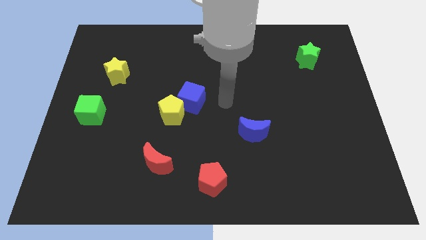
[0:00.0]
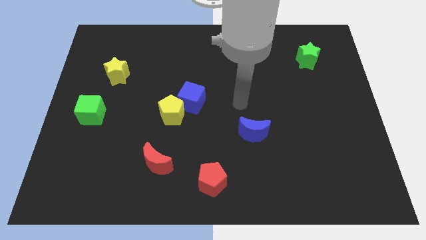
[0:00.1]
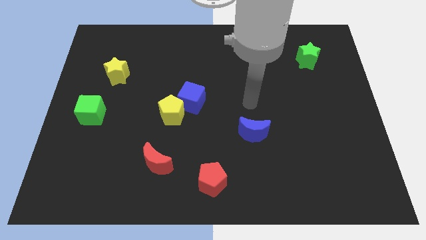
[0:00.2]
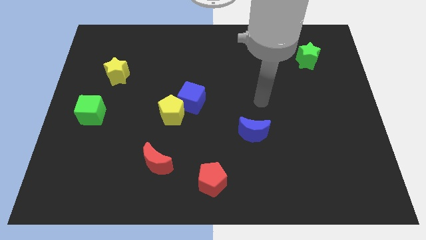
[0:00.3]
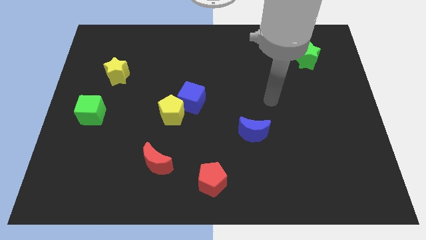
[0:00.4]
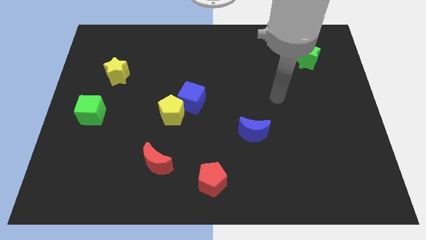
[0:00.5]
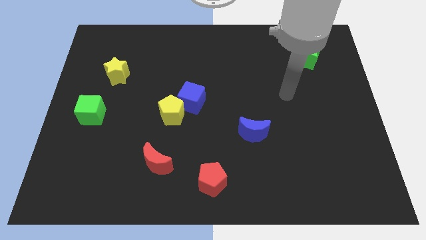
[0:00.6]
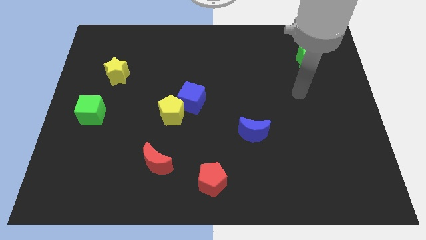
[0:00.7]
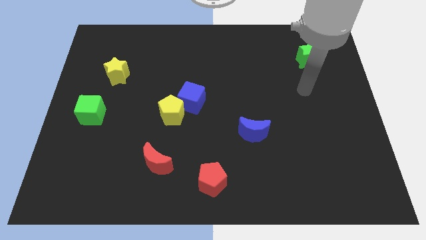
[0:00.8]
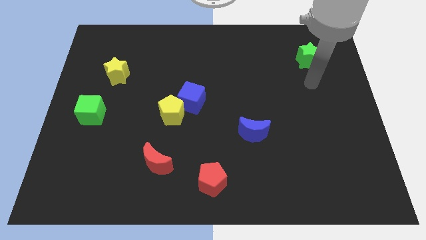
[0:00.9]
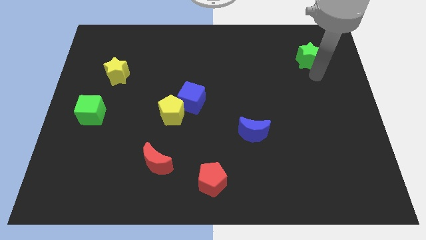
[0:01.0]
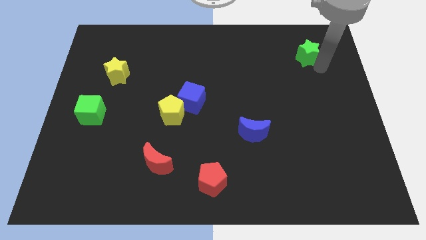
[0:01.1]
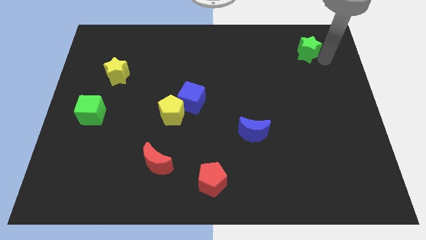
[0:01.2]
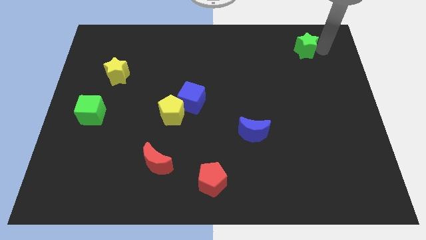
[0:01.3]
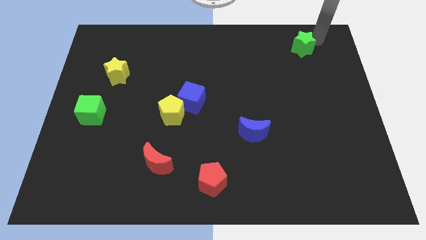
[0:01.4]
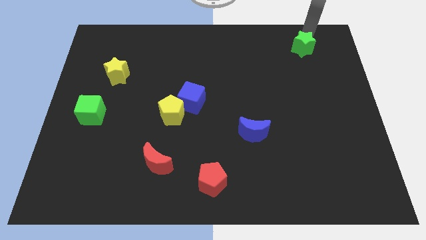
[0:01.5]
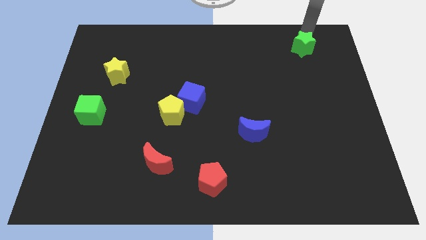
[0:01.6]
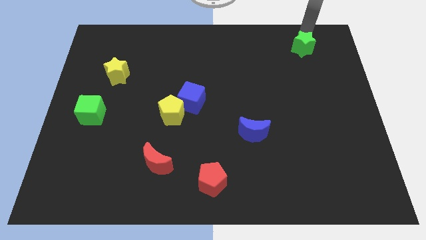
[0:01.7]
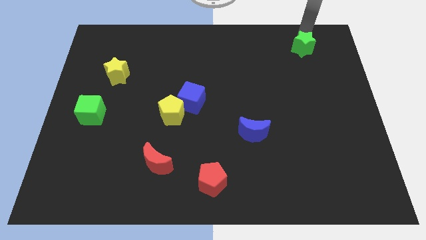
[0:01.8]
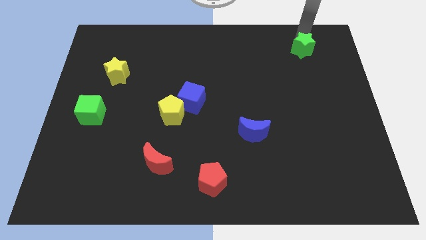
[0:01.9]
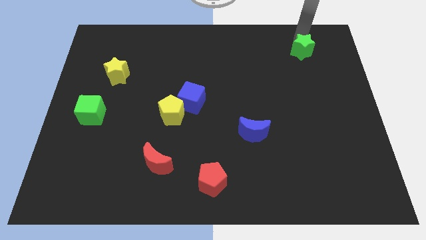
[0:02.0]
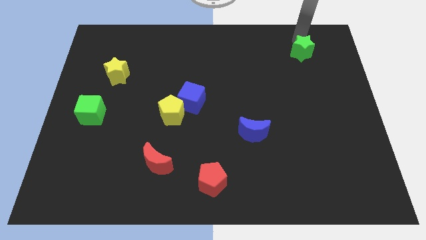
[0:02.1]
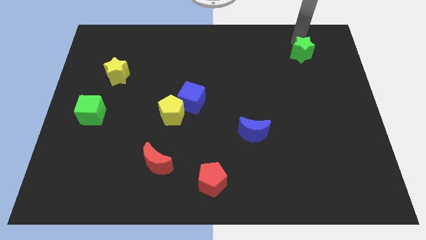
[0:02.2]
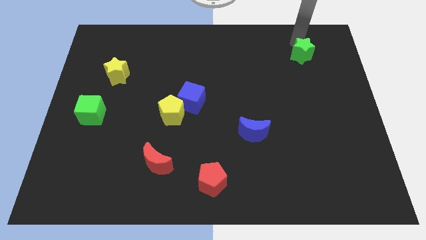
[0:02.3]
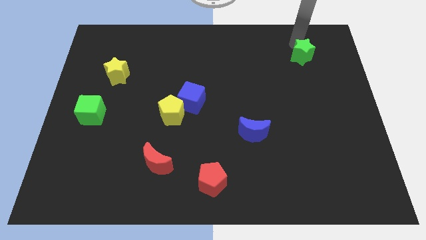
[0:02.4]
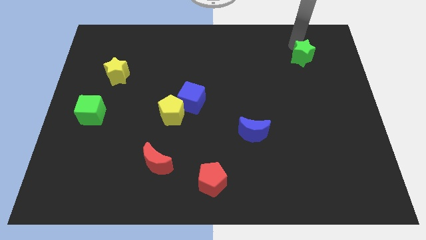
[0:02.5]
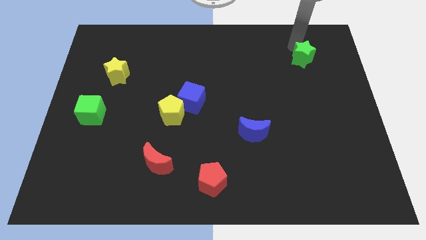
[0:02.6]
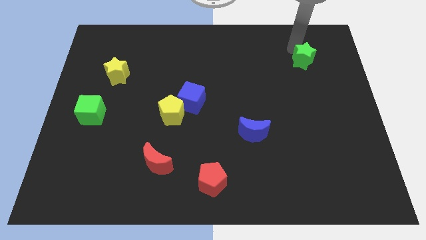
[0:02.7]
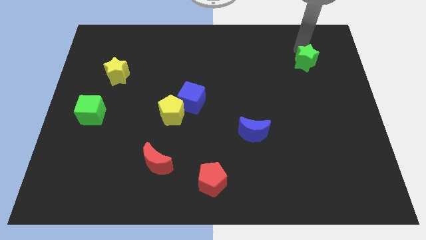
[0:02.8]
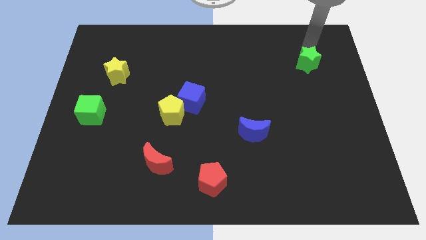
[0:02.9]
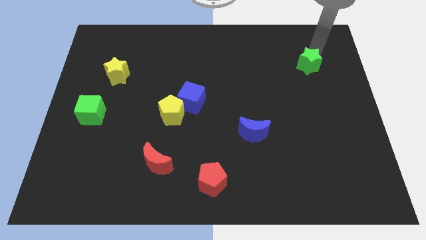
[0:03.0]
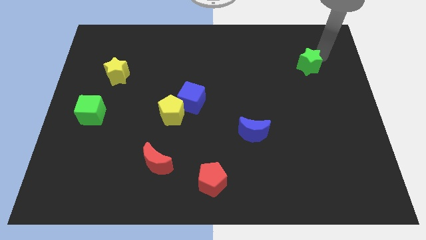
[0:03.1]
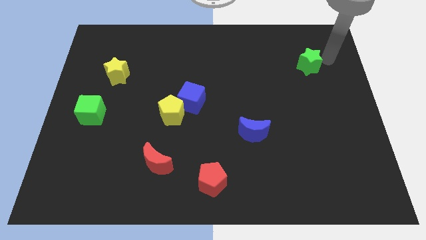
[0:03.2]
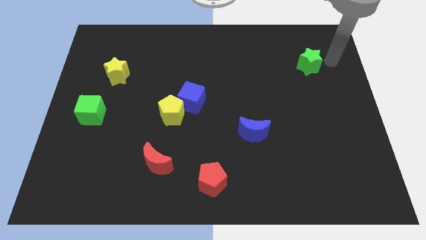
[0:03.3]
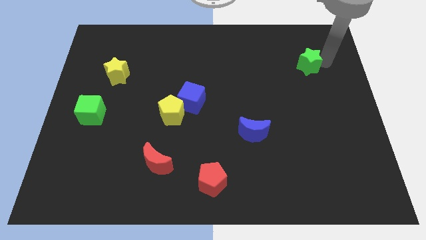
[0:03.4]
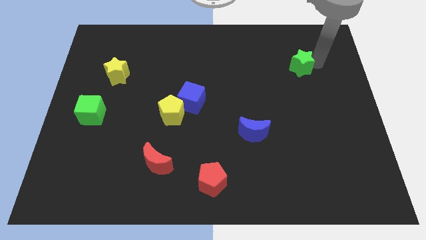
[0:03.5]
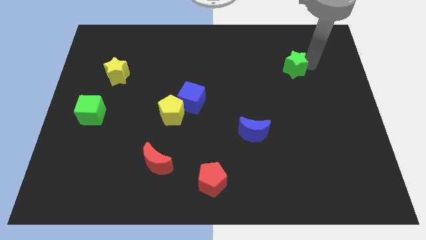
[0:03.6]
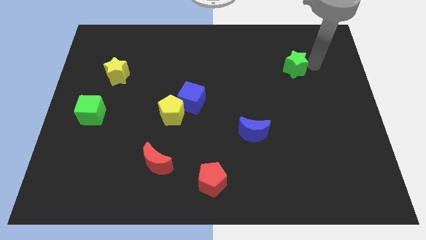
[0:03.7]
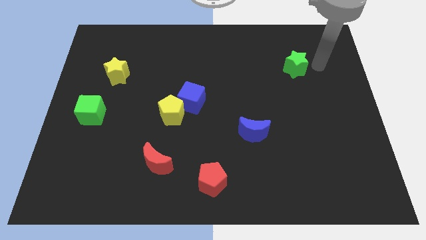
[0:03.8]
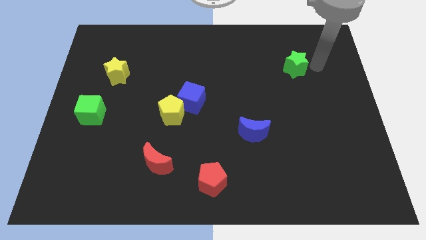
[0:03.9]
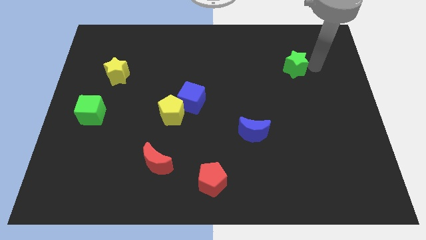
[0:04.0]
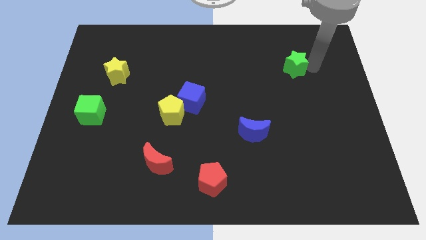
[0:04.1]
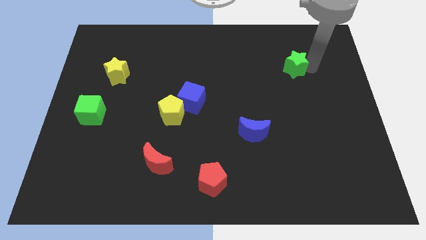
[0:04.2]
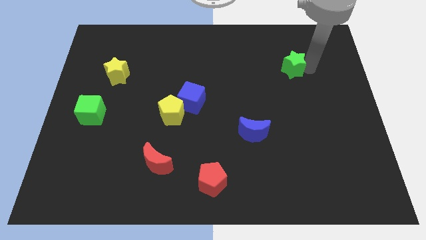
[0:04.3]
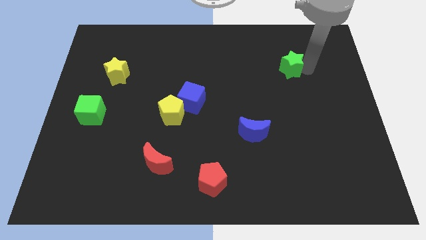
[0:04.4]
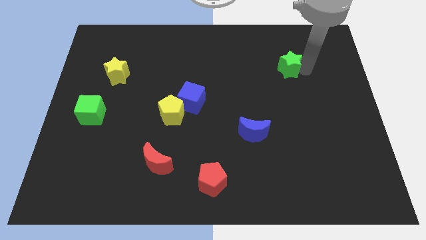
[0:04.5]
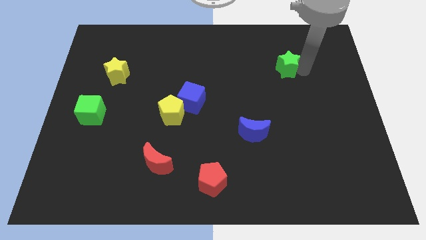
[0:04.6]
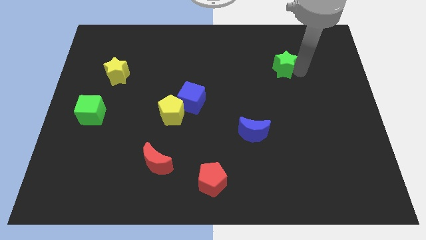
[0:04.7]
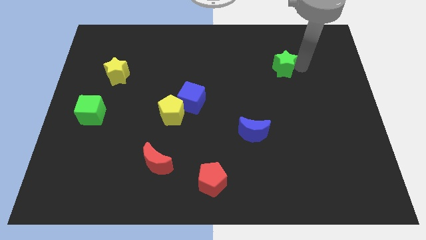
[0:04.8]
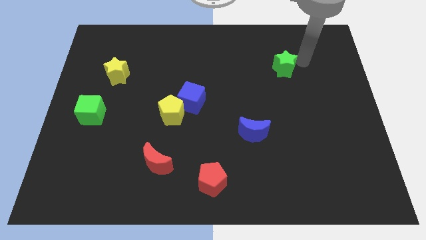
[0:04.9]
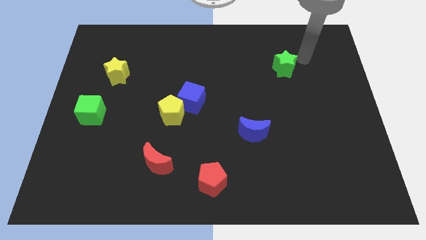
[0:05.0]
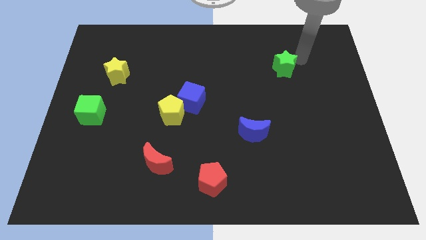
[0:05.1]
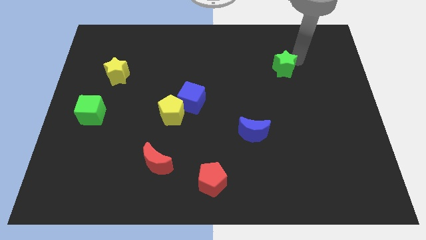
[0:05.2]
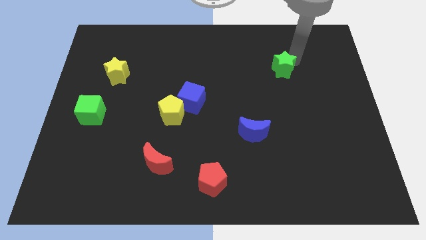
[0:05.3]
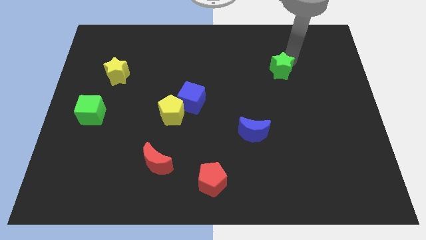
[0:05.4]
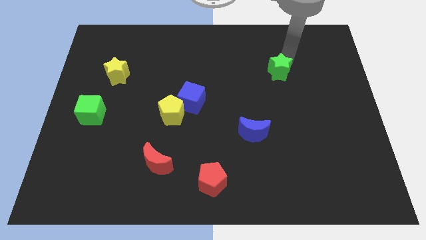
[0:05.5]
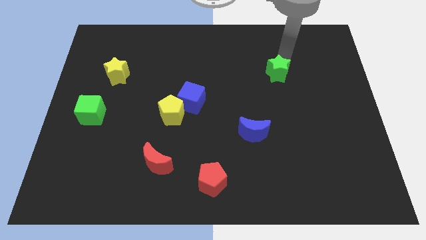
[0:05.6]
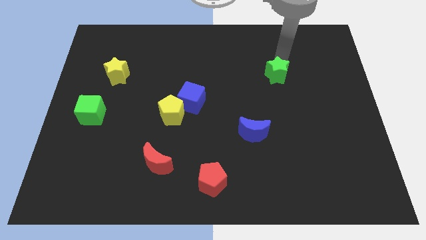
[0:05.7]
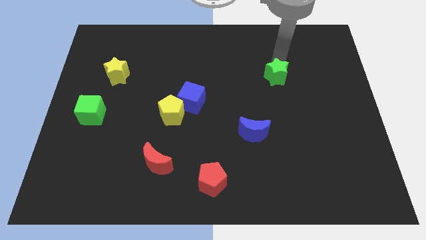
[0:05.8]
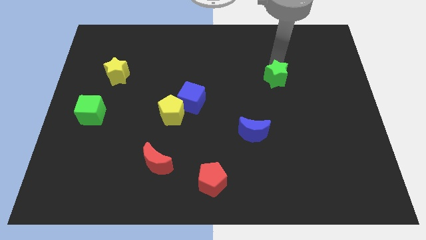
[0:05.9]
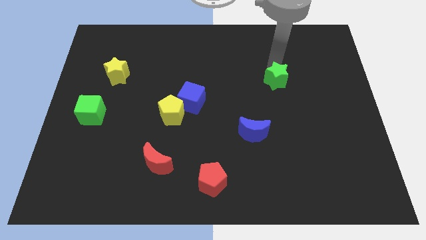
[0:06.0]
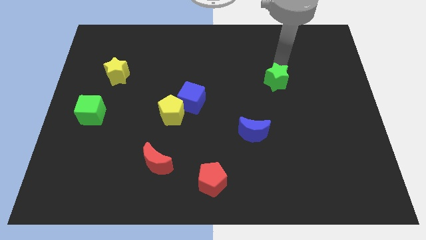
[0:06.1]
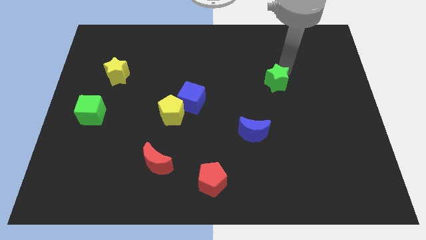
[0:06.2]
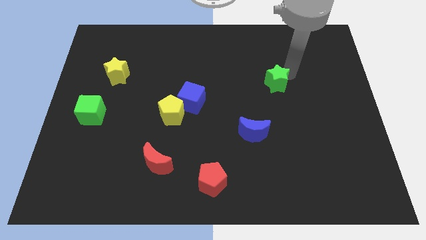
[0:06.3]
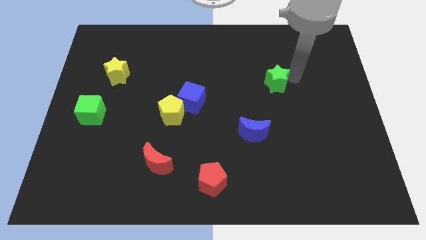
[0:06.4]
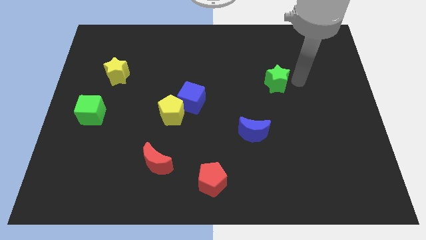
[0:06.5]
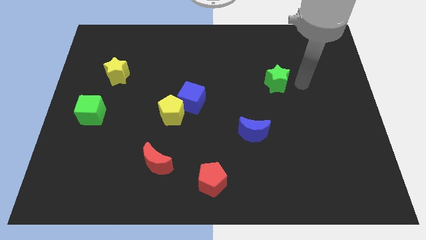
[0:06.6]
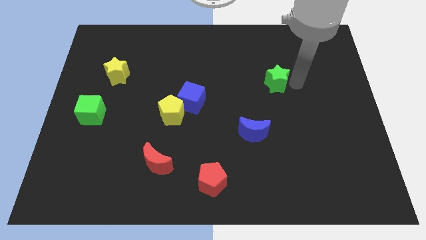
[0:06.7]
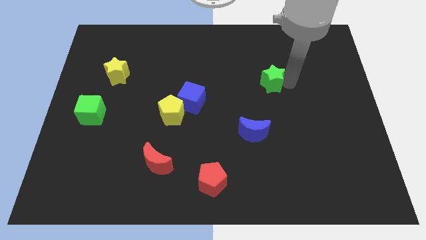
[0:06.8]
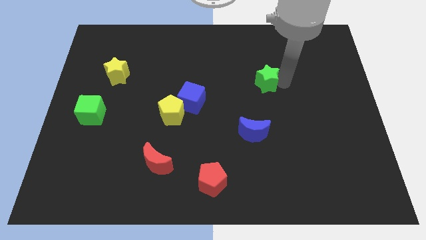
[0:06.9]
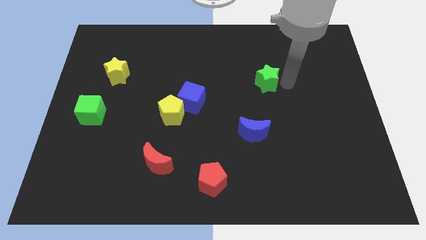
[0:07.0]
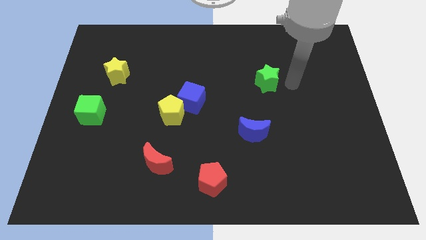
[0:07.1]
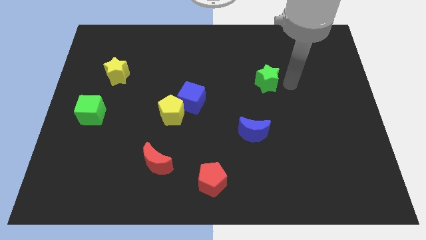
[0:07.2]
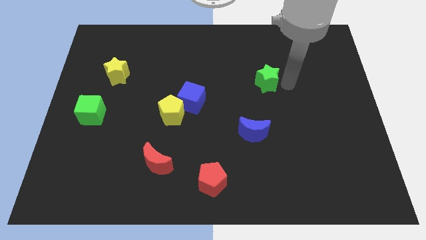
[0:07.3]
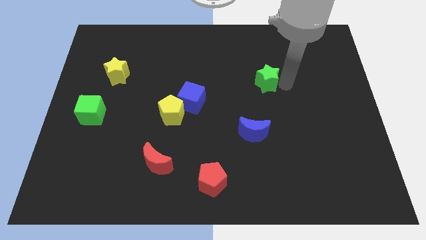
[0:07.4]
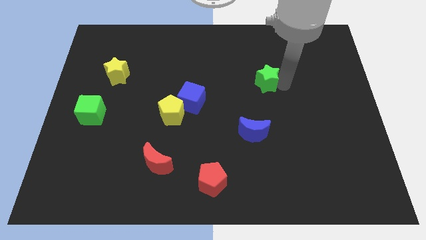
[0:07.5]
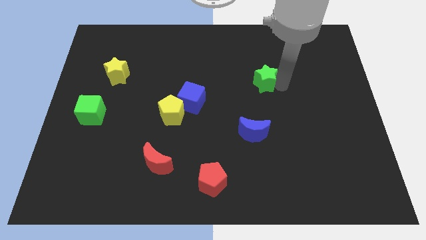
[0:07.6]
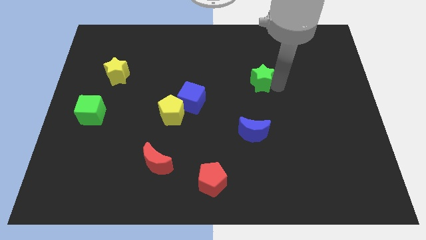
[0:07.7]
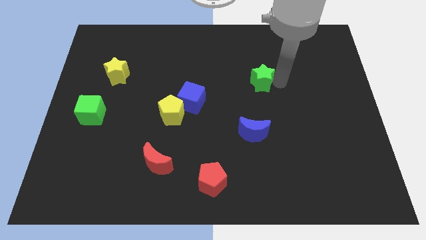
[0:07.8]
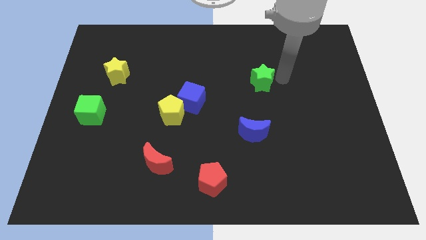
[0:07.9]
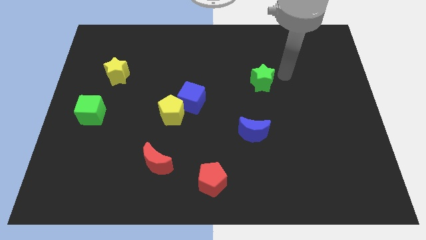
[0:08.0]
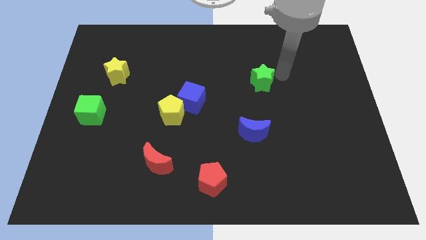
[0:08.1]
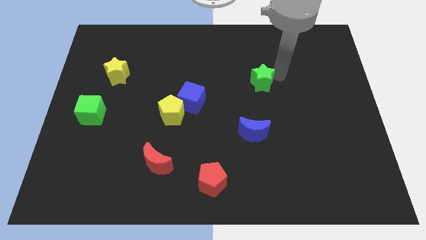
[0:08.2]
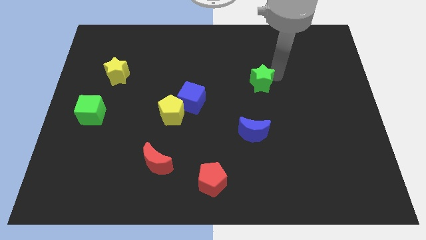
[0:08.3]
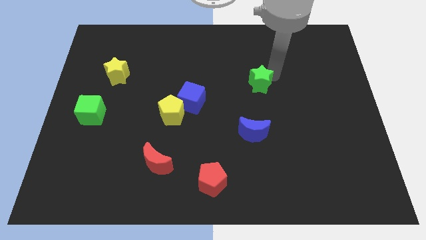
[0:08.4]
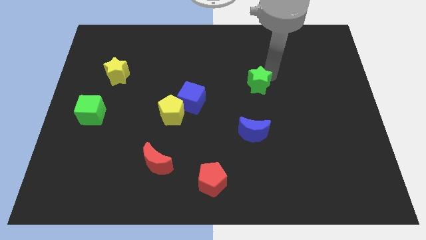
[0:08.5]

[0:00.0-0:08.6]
slide the green star to the center of the board
